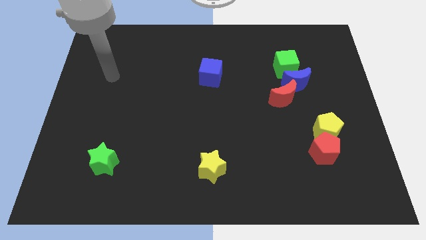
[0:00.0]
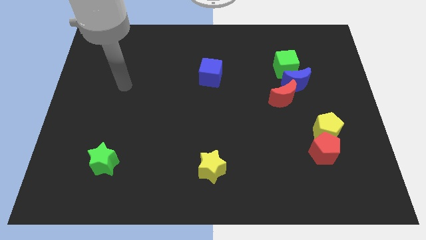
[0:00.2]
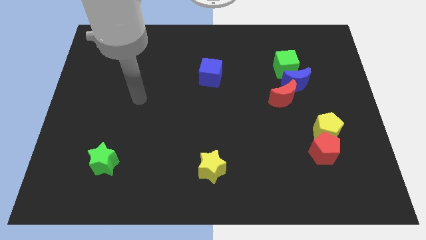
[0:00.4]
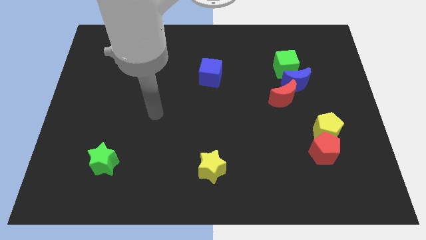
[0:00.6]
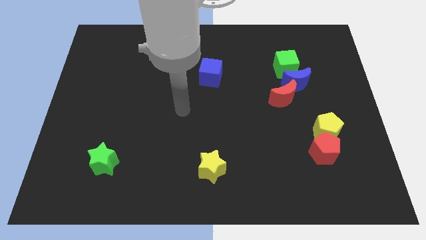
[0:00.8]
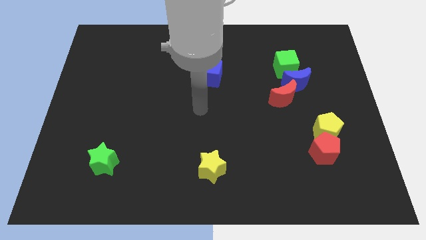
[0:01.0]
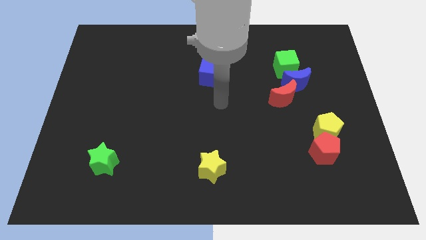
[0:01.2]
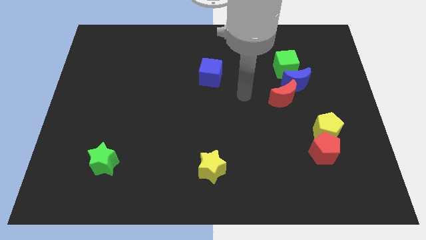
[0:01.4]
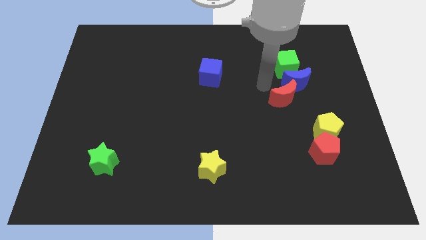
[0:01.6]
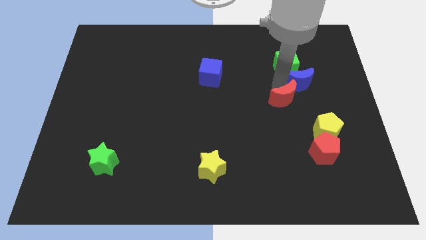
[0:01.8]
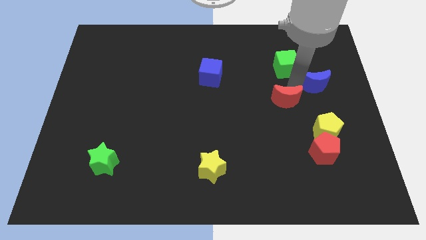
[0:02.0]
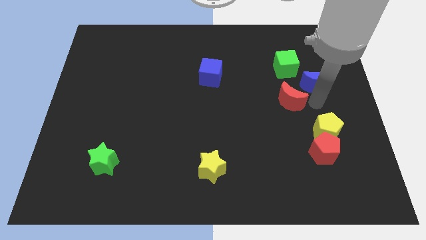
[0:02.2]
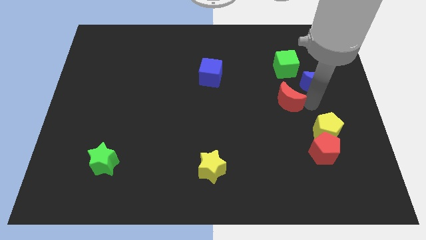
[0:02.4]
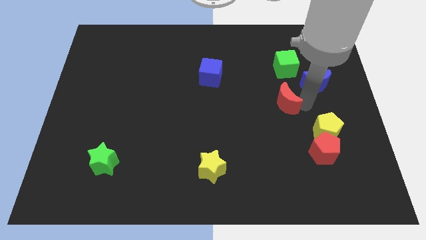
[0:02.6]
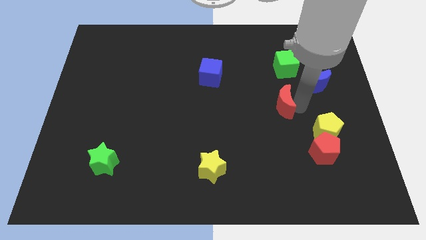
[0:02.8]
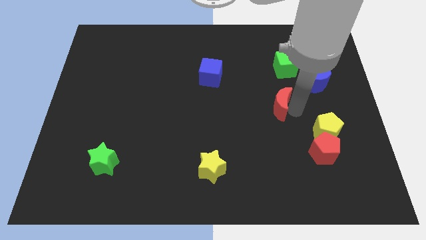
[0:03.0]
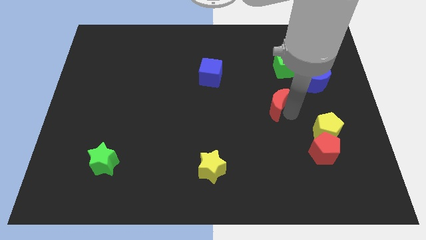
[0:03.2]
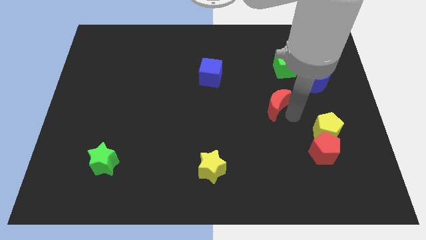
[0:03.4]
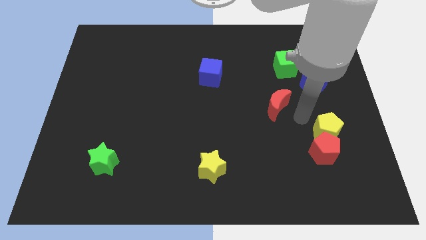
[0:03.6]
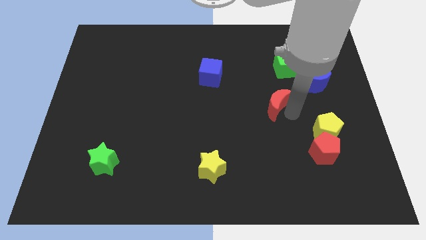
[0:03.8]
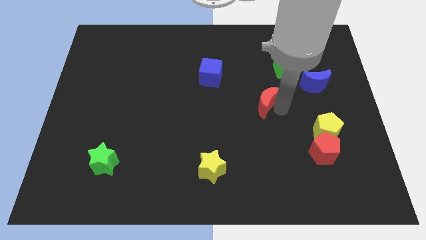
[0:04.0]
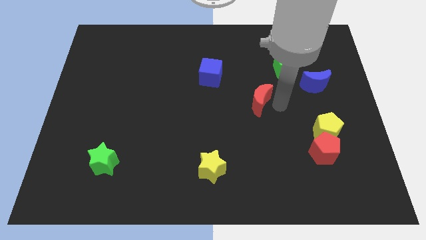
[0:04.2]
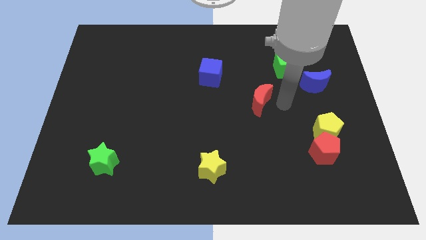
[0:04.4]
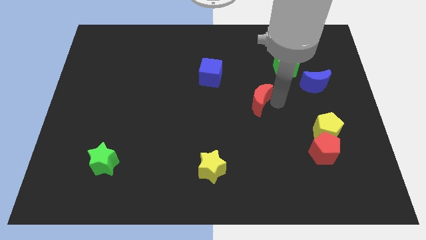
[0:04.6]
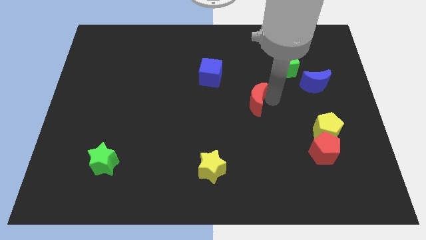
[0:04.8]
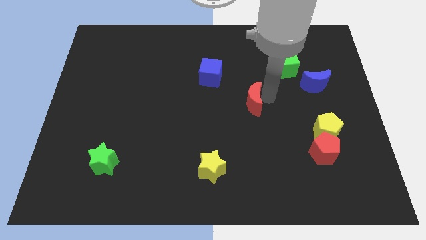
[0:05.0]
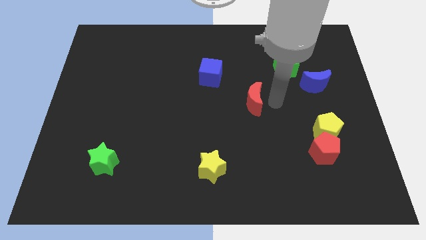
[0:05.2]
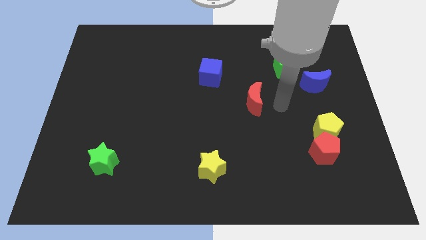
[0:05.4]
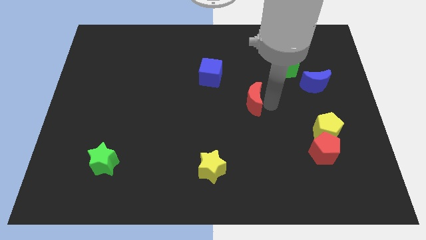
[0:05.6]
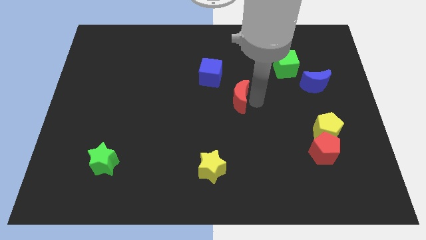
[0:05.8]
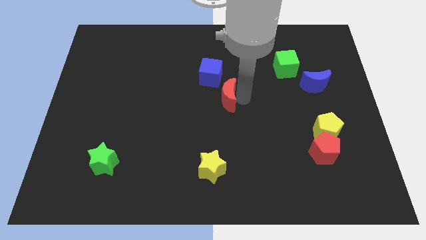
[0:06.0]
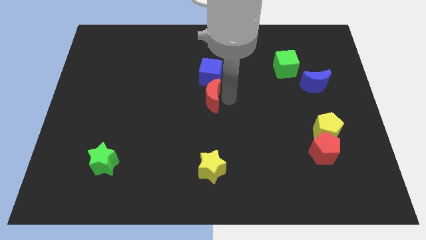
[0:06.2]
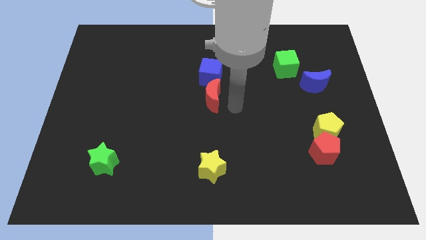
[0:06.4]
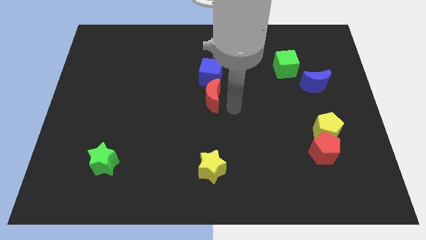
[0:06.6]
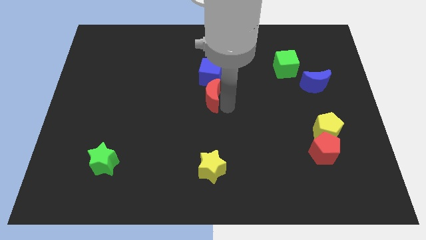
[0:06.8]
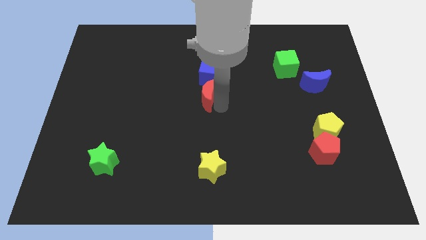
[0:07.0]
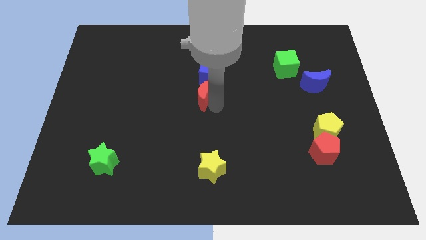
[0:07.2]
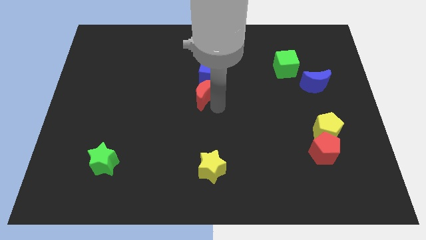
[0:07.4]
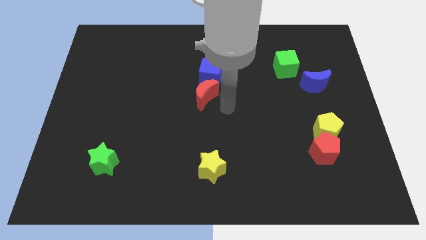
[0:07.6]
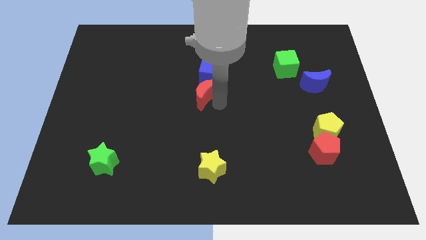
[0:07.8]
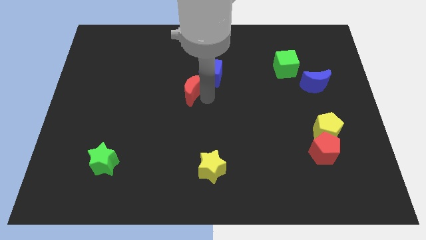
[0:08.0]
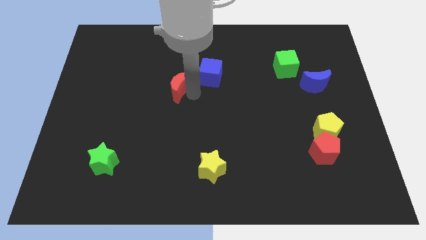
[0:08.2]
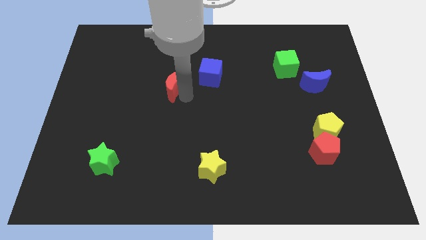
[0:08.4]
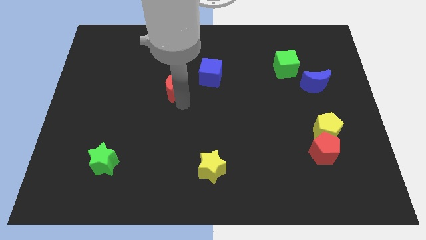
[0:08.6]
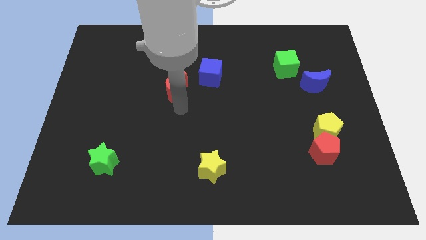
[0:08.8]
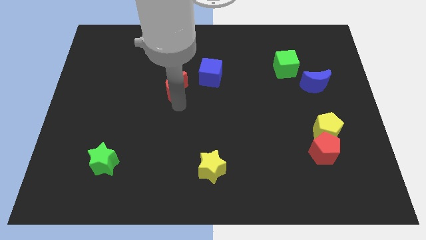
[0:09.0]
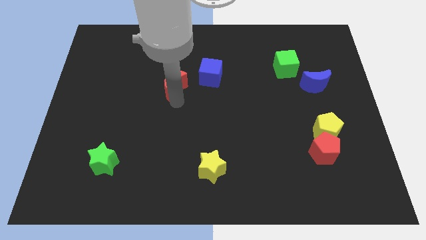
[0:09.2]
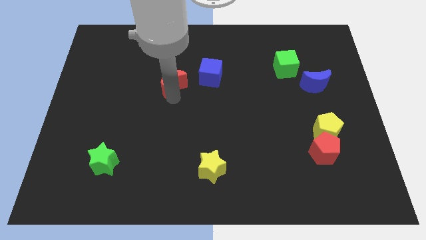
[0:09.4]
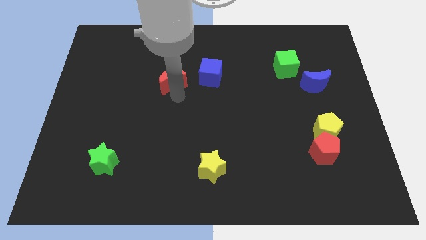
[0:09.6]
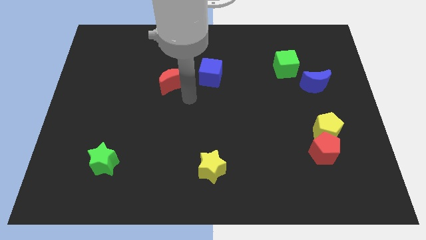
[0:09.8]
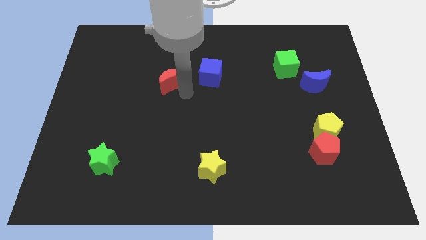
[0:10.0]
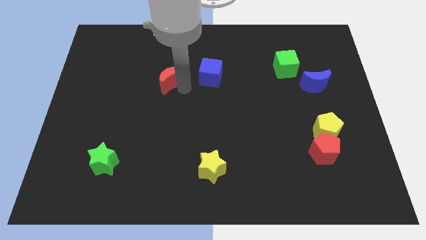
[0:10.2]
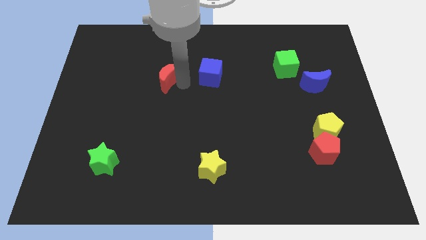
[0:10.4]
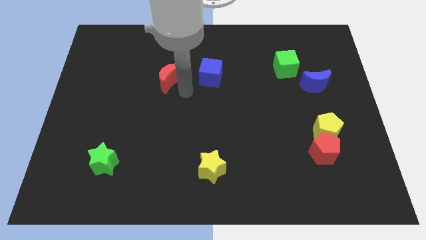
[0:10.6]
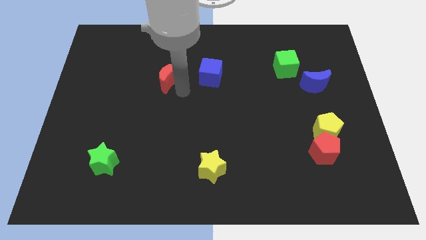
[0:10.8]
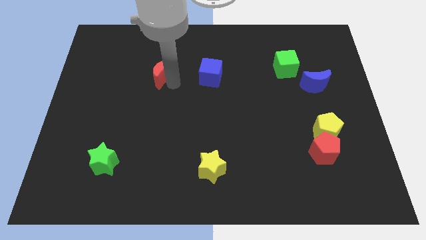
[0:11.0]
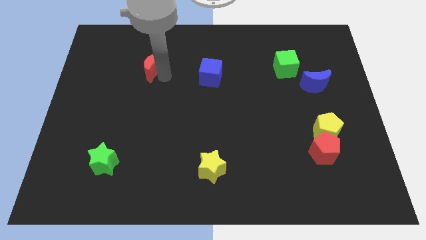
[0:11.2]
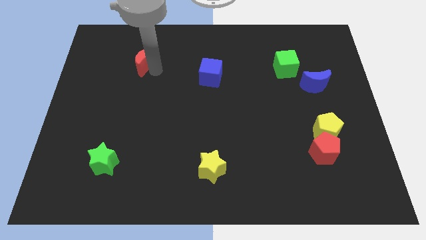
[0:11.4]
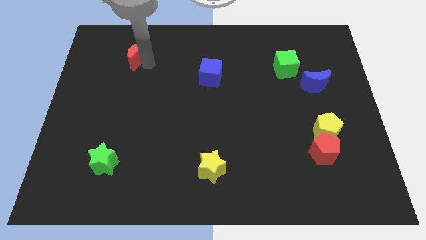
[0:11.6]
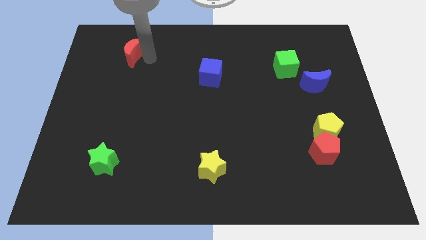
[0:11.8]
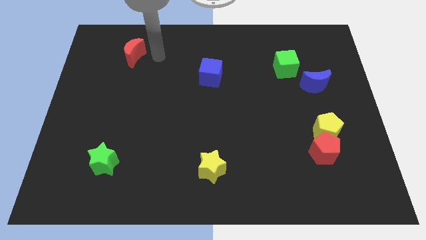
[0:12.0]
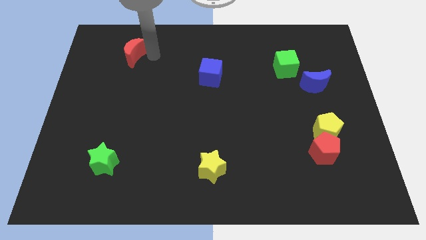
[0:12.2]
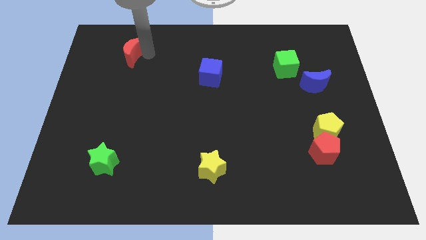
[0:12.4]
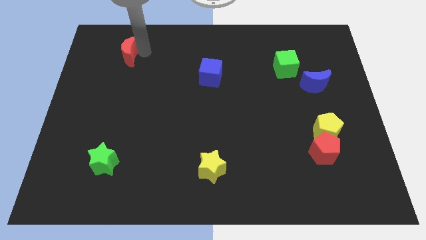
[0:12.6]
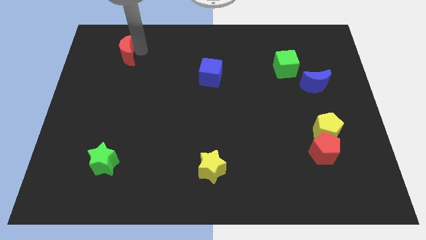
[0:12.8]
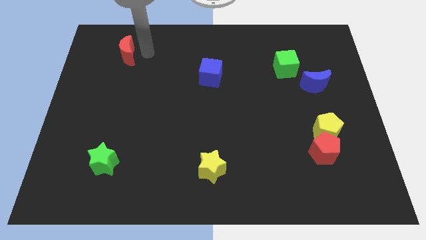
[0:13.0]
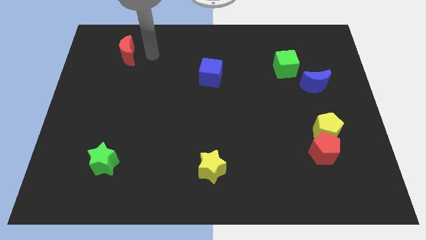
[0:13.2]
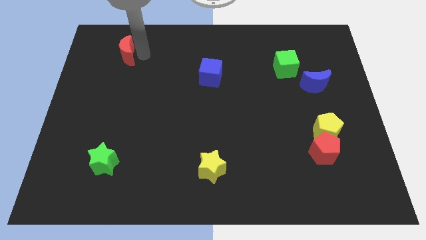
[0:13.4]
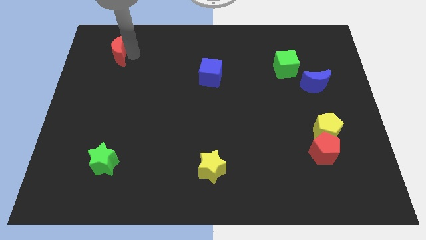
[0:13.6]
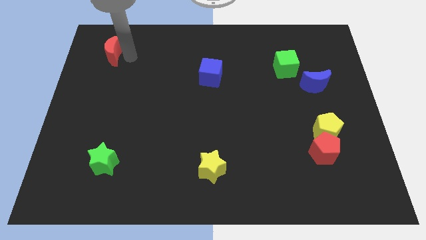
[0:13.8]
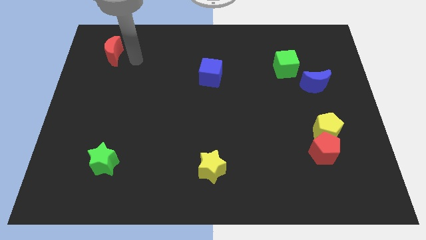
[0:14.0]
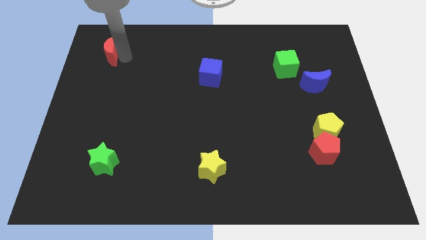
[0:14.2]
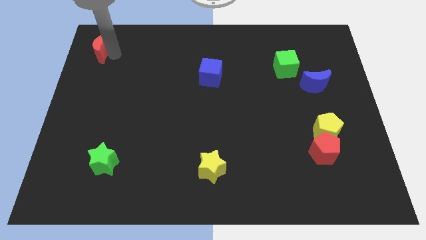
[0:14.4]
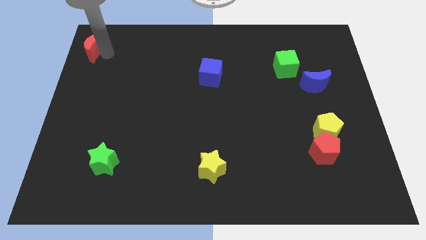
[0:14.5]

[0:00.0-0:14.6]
move the red moon to the upper left corner
